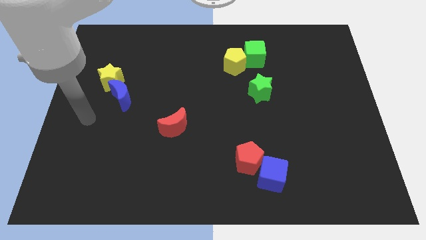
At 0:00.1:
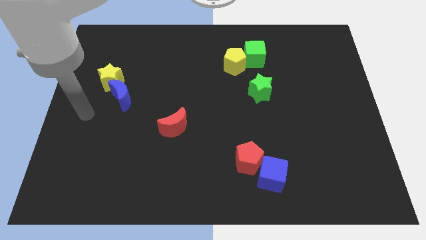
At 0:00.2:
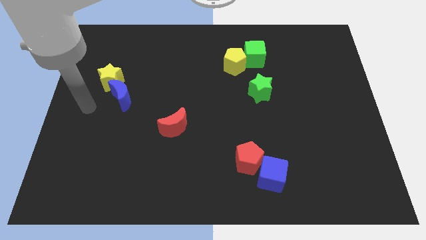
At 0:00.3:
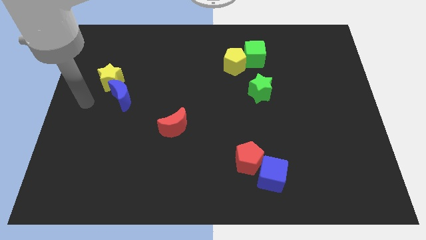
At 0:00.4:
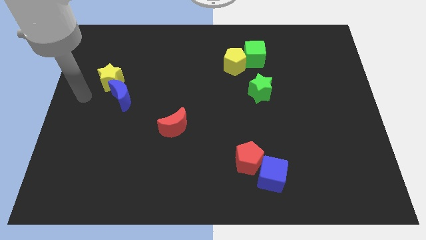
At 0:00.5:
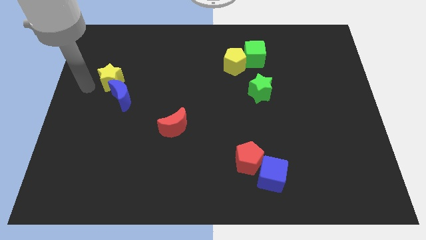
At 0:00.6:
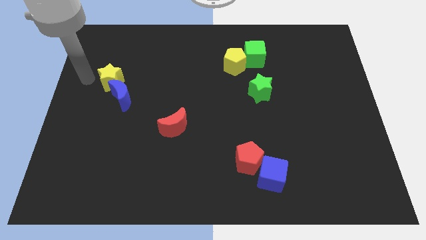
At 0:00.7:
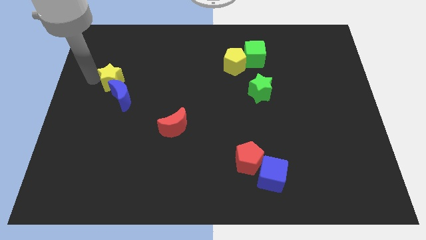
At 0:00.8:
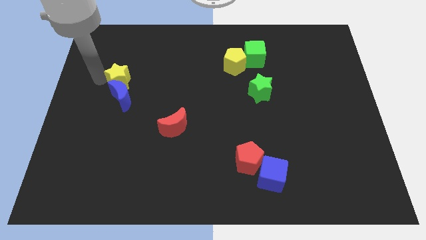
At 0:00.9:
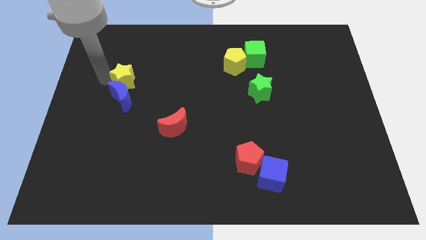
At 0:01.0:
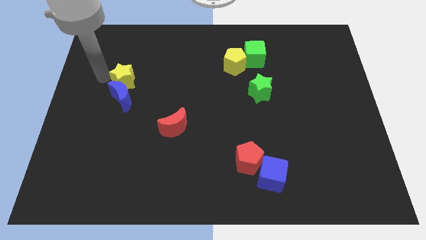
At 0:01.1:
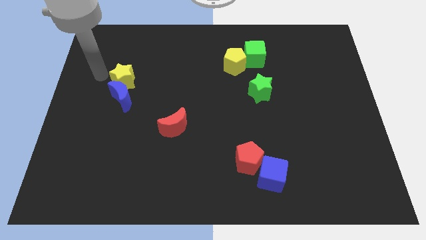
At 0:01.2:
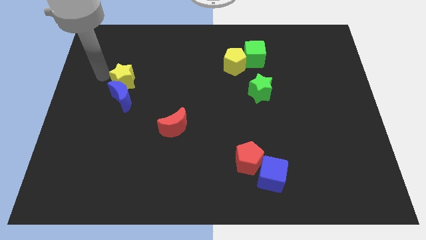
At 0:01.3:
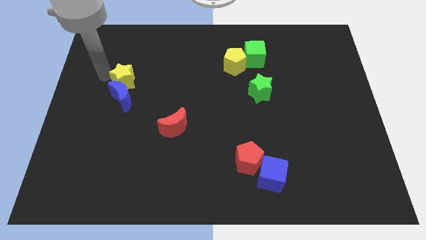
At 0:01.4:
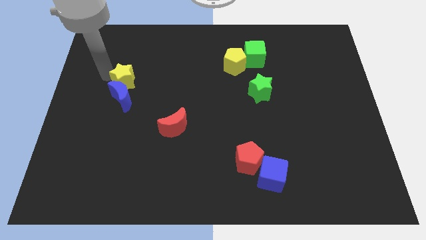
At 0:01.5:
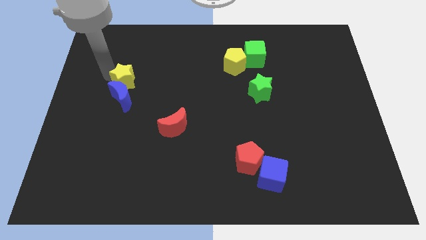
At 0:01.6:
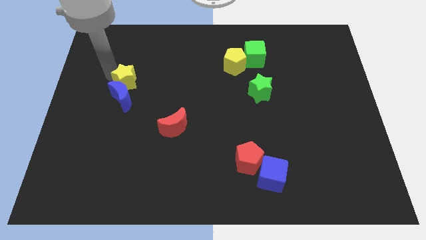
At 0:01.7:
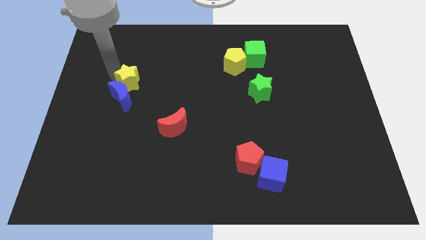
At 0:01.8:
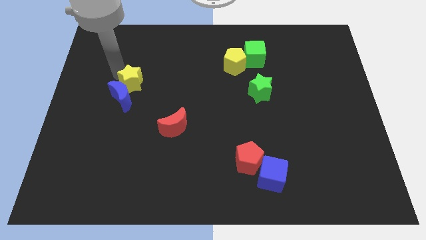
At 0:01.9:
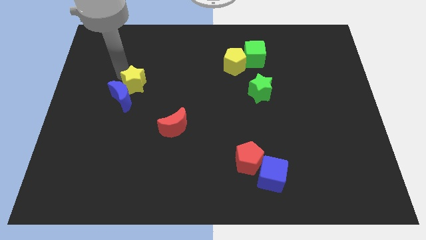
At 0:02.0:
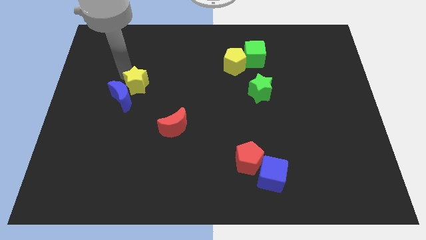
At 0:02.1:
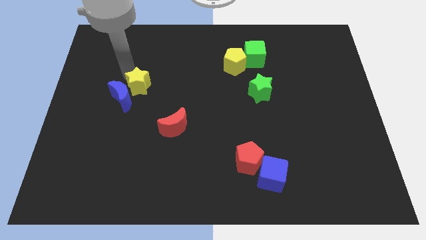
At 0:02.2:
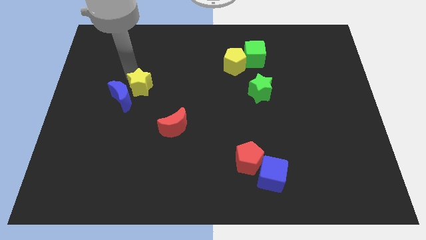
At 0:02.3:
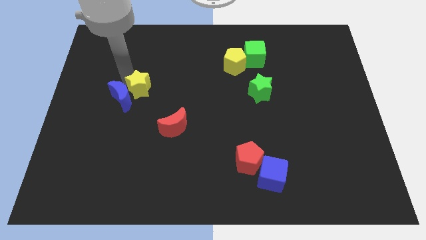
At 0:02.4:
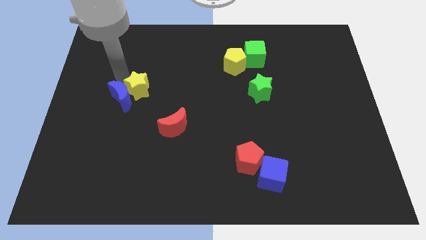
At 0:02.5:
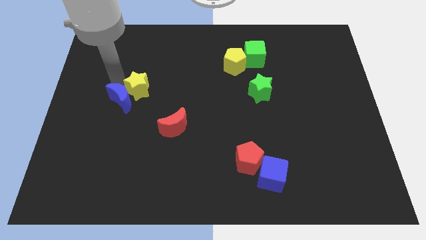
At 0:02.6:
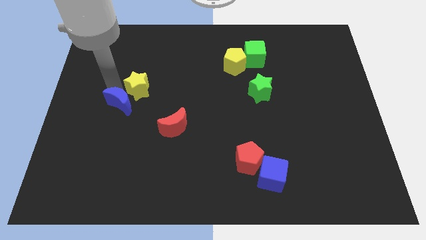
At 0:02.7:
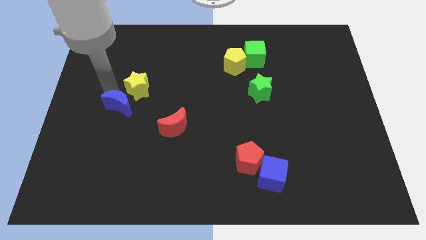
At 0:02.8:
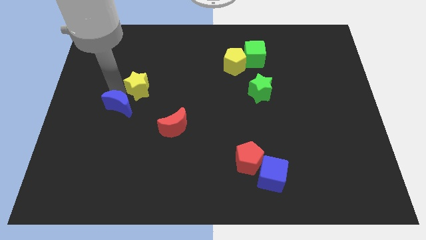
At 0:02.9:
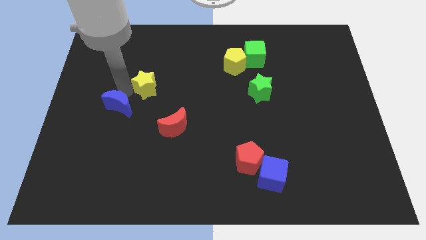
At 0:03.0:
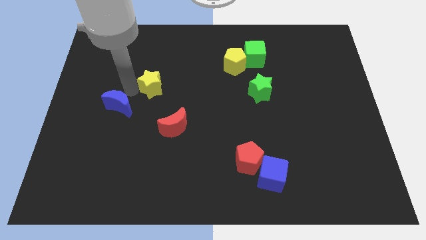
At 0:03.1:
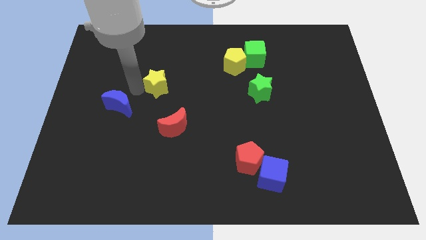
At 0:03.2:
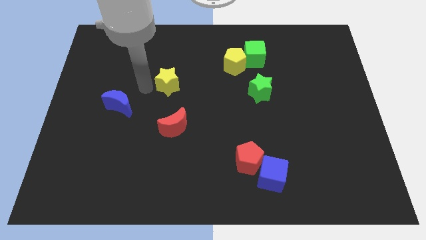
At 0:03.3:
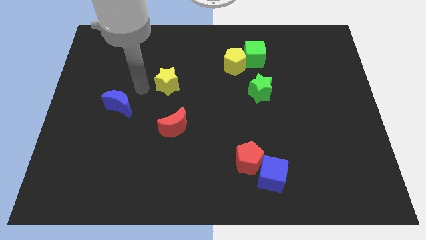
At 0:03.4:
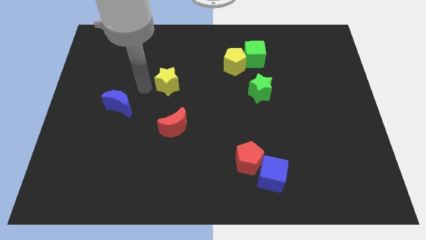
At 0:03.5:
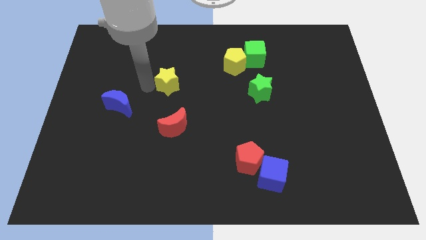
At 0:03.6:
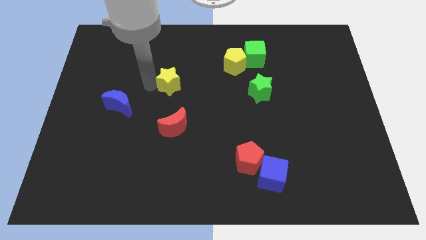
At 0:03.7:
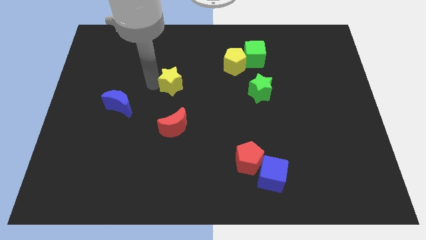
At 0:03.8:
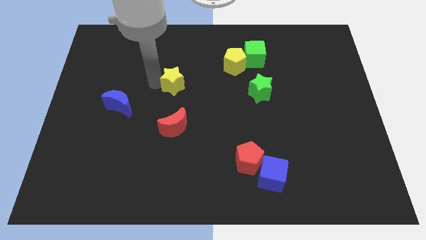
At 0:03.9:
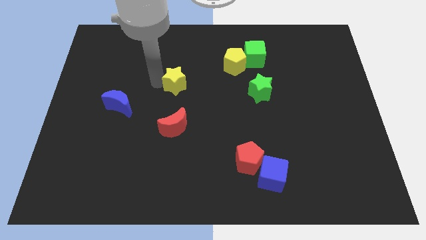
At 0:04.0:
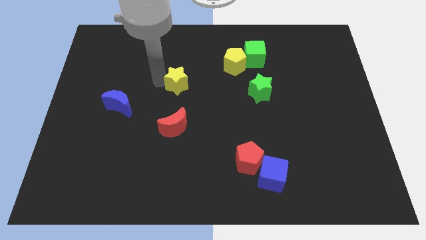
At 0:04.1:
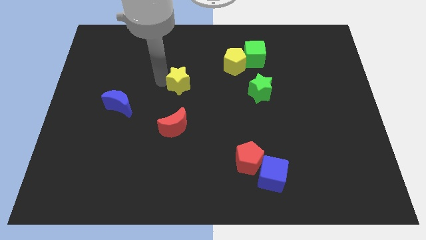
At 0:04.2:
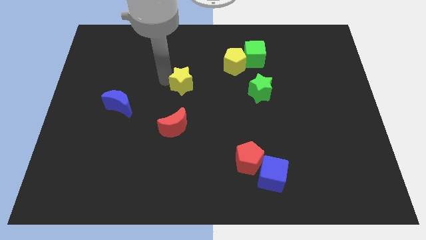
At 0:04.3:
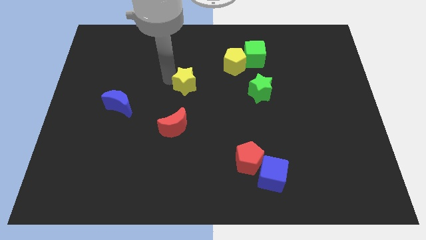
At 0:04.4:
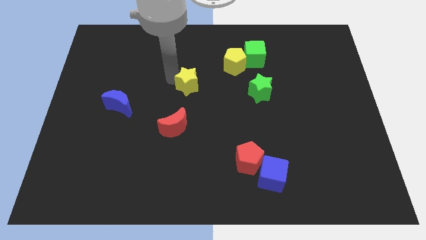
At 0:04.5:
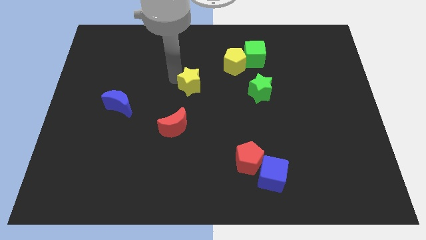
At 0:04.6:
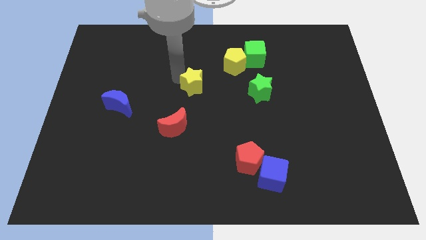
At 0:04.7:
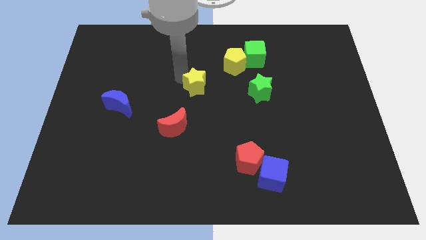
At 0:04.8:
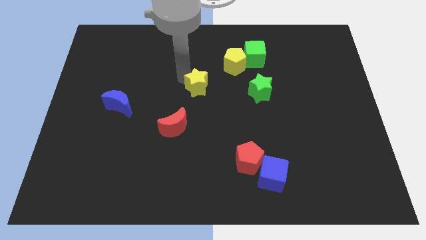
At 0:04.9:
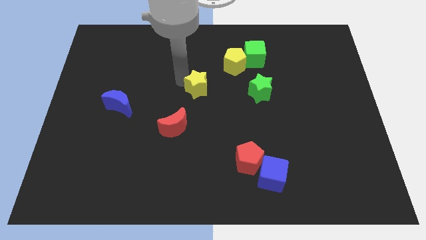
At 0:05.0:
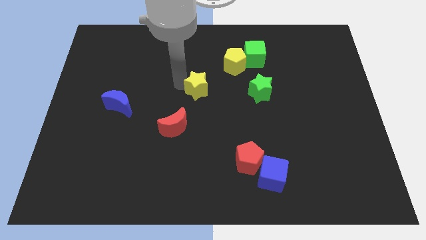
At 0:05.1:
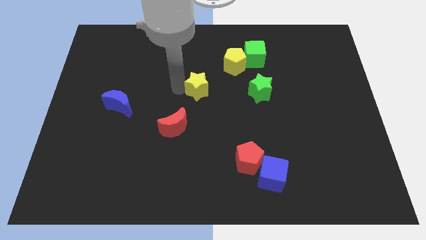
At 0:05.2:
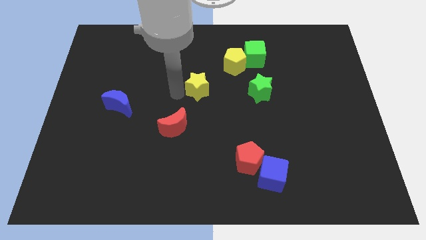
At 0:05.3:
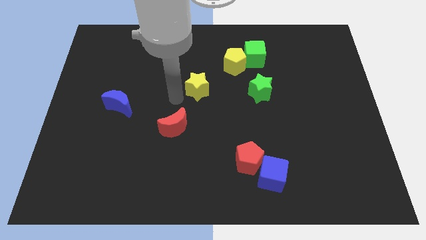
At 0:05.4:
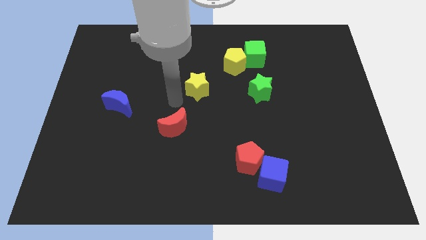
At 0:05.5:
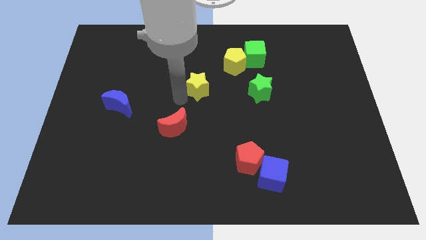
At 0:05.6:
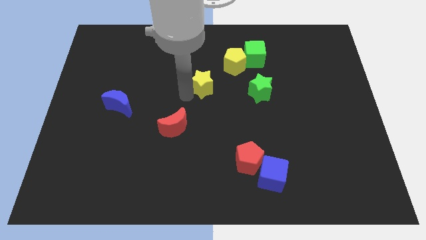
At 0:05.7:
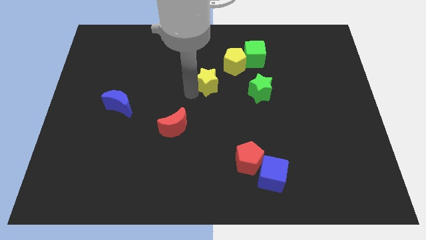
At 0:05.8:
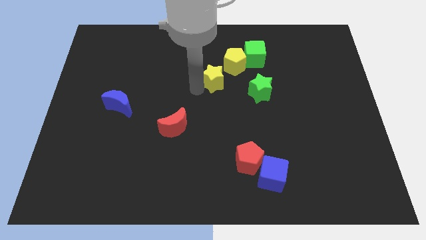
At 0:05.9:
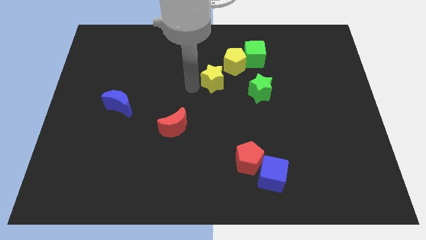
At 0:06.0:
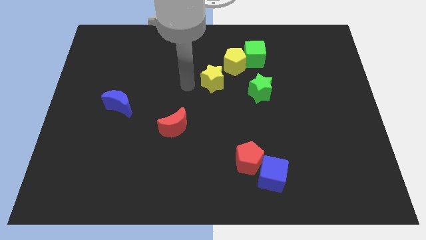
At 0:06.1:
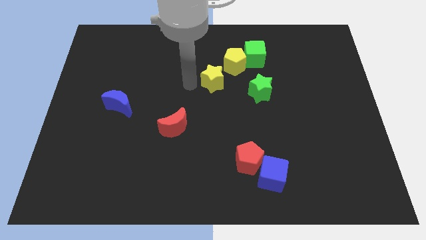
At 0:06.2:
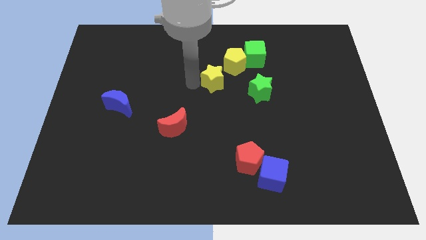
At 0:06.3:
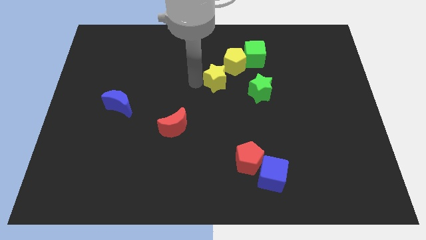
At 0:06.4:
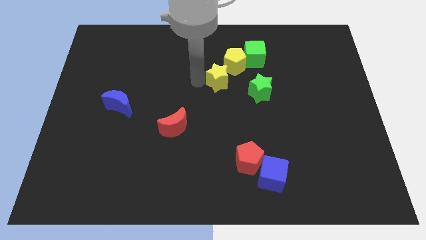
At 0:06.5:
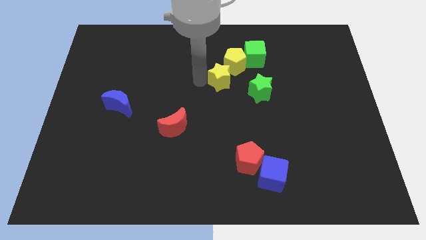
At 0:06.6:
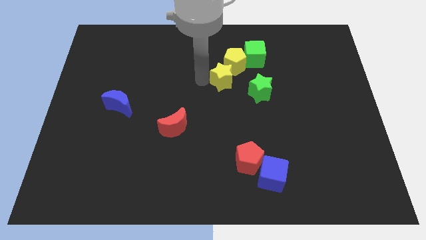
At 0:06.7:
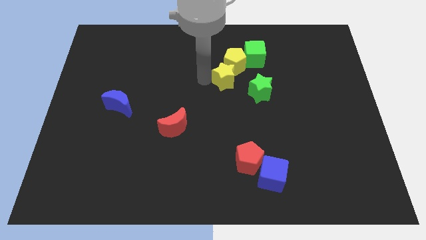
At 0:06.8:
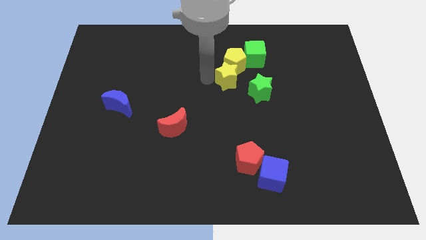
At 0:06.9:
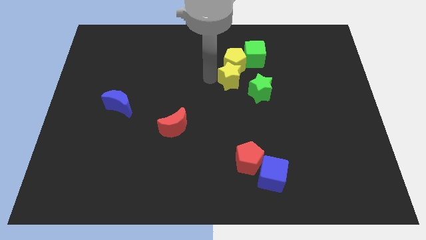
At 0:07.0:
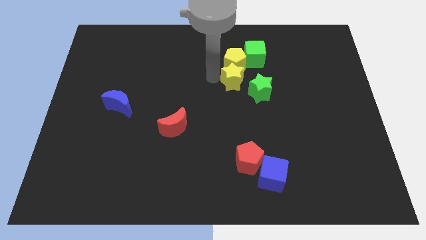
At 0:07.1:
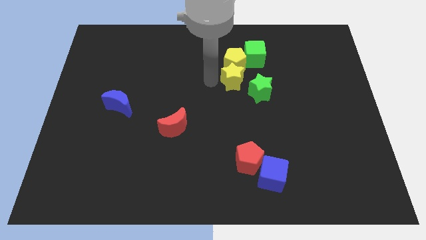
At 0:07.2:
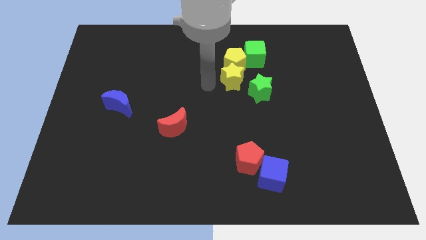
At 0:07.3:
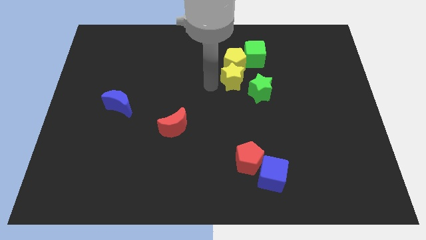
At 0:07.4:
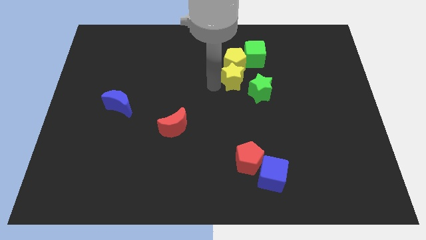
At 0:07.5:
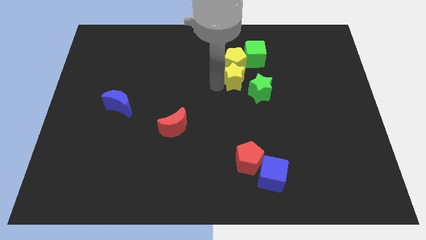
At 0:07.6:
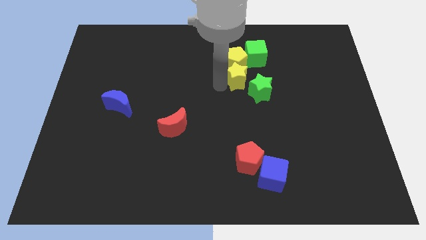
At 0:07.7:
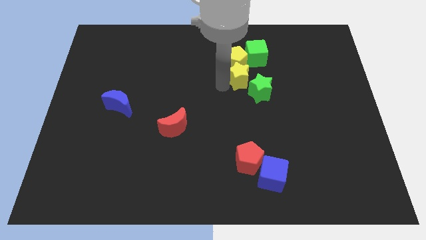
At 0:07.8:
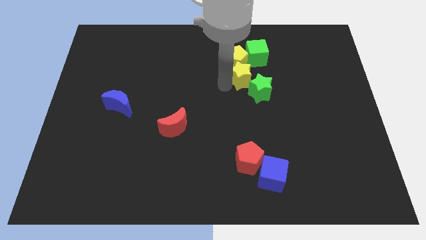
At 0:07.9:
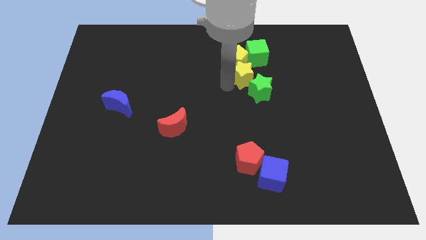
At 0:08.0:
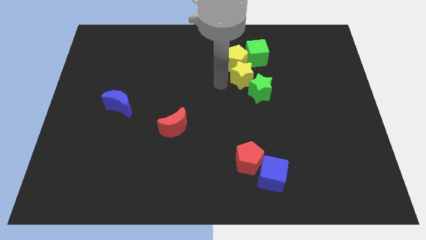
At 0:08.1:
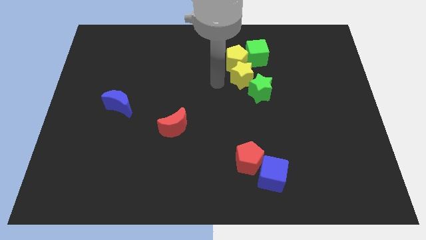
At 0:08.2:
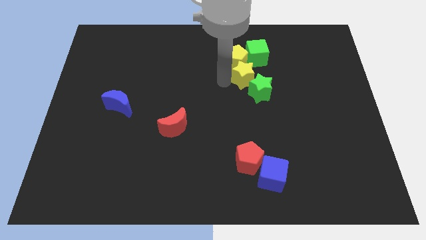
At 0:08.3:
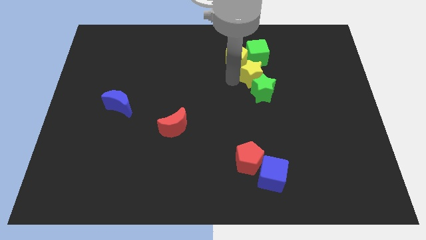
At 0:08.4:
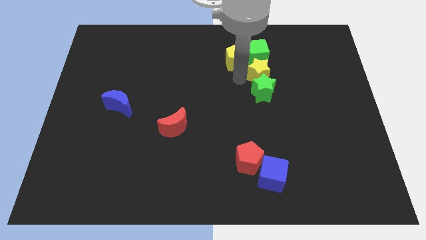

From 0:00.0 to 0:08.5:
slide the yellow star to the bottom right side of the green cube
